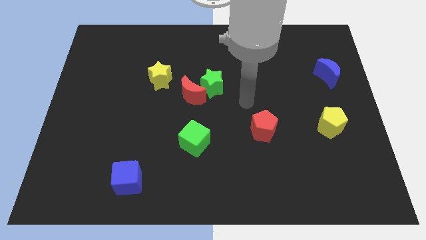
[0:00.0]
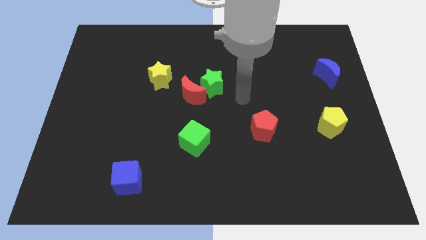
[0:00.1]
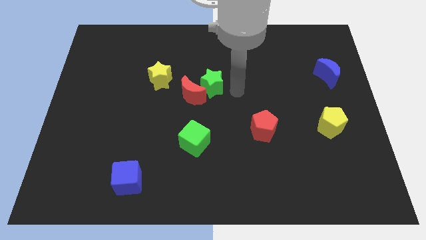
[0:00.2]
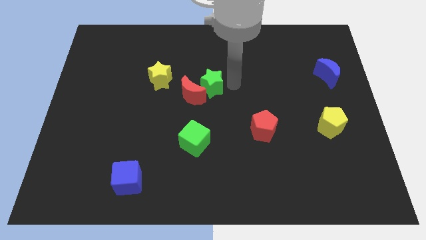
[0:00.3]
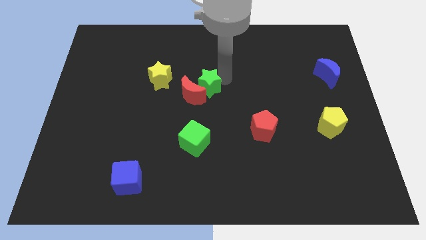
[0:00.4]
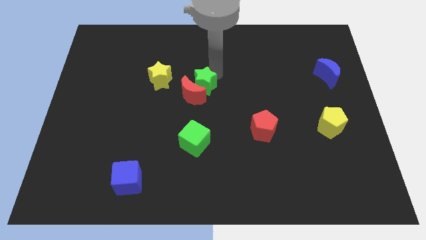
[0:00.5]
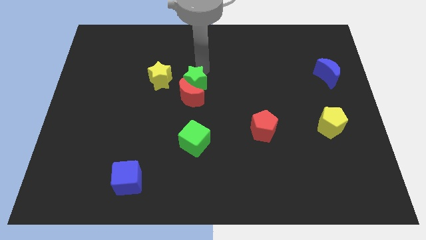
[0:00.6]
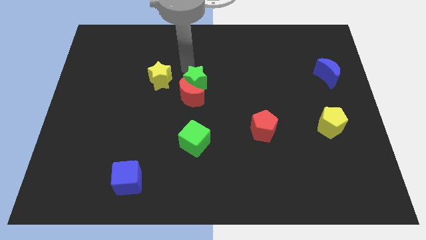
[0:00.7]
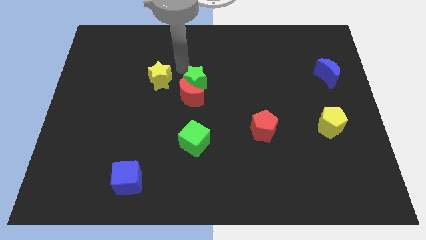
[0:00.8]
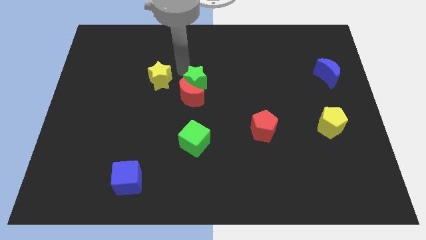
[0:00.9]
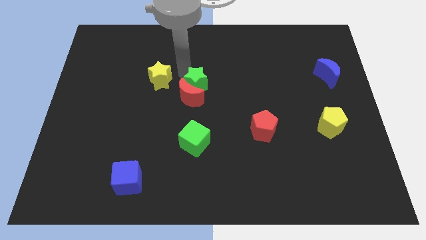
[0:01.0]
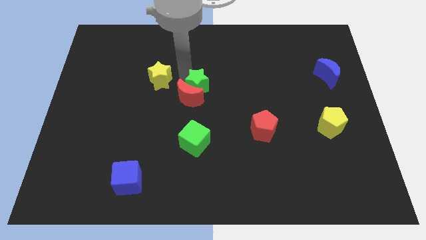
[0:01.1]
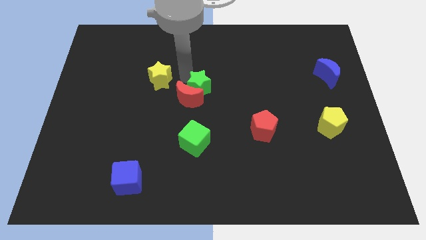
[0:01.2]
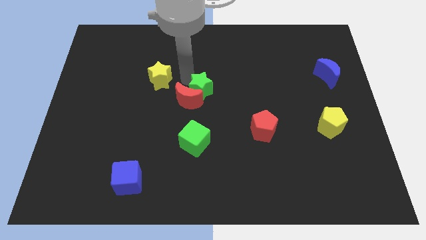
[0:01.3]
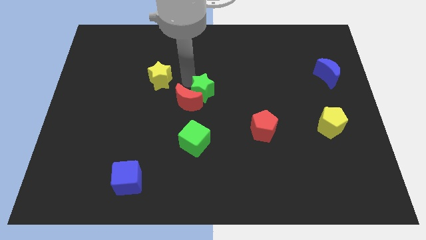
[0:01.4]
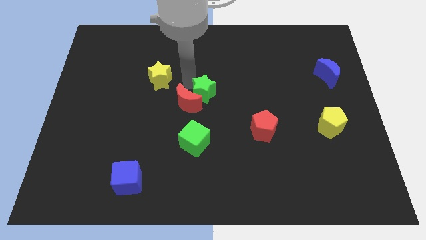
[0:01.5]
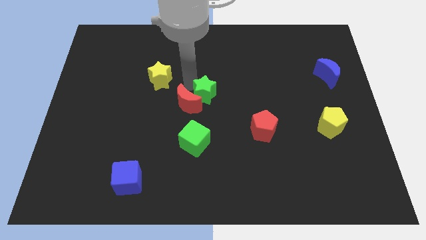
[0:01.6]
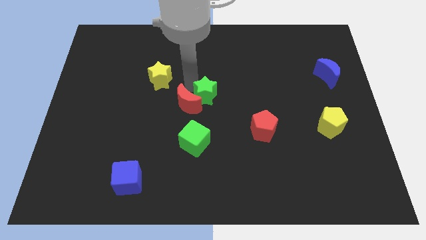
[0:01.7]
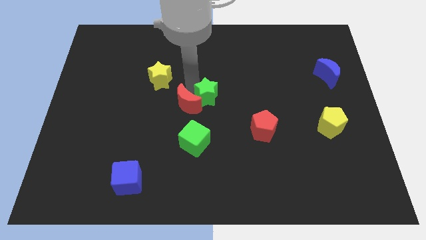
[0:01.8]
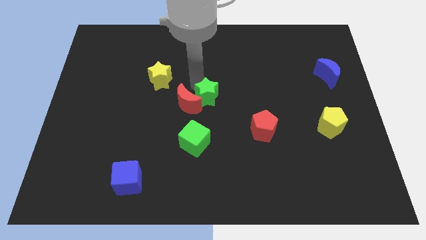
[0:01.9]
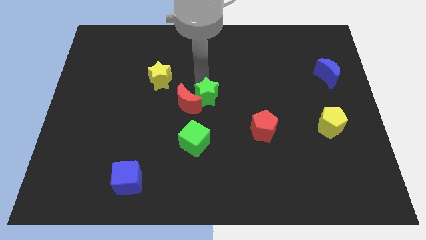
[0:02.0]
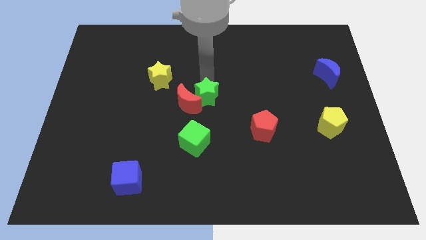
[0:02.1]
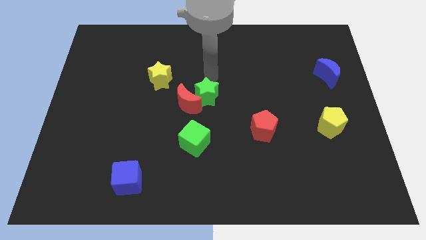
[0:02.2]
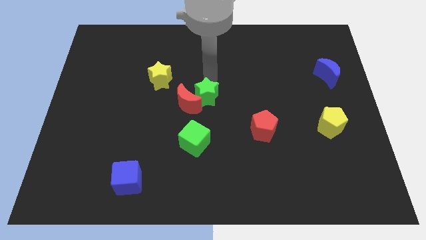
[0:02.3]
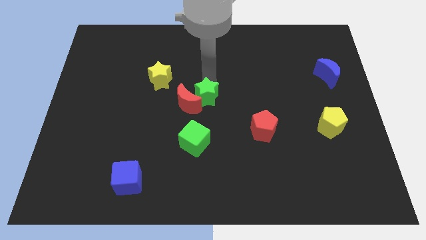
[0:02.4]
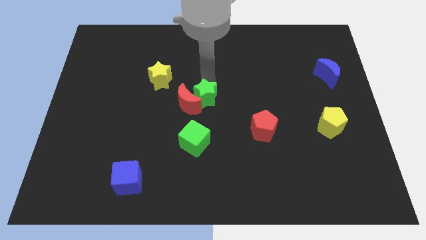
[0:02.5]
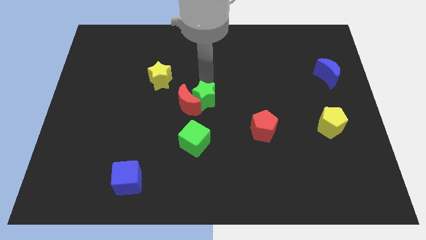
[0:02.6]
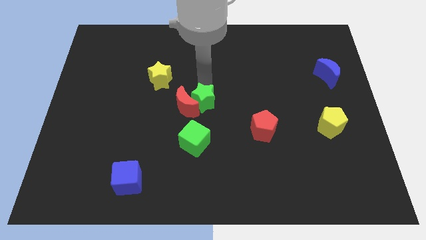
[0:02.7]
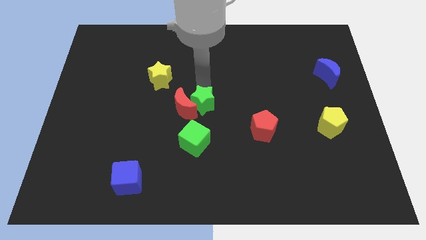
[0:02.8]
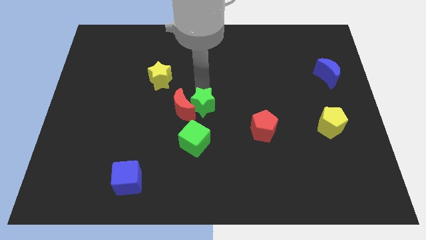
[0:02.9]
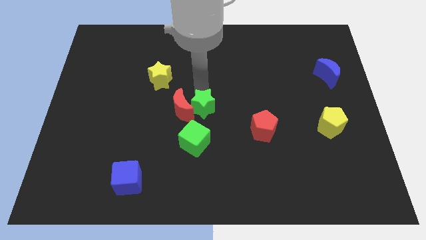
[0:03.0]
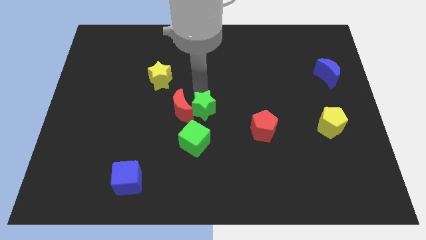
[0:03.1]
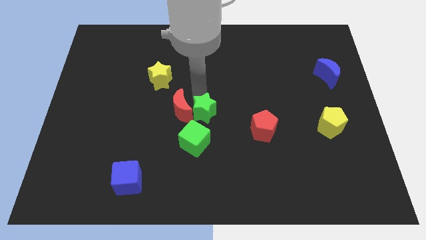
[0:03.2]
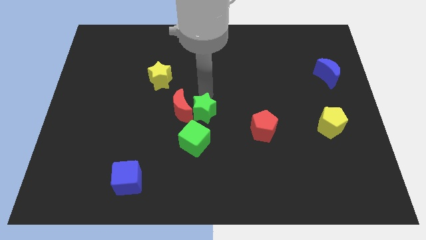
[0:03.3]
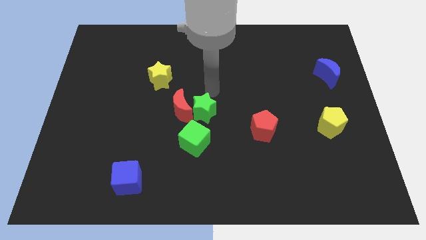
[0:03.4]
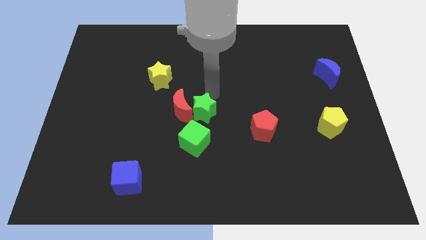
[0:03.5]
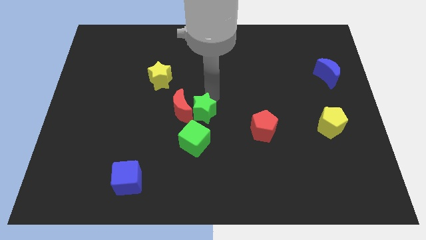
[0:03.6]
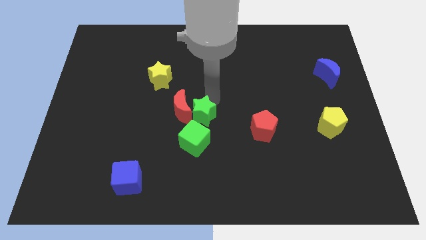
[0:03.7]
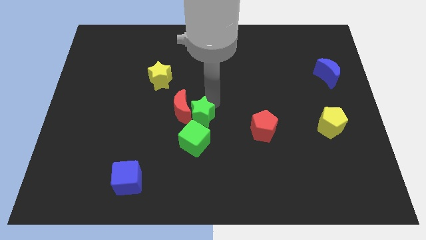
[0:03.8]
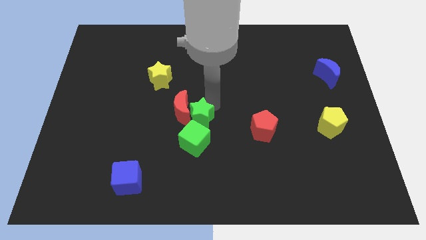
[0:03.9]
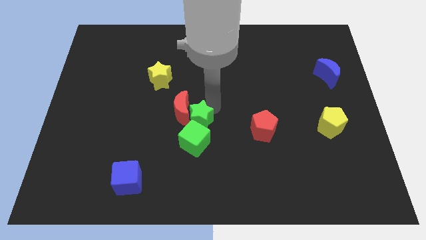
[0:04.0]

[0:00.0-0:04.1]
slide the green star close to the green cube

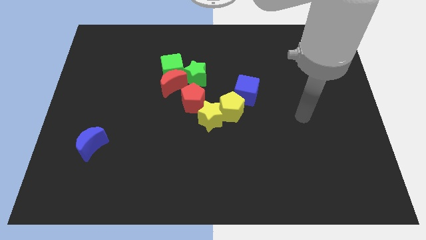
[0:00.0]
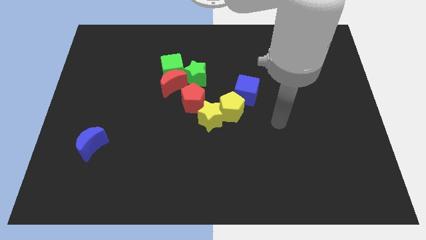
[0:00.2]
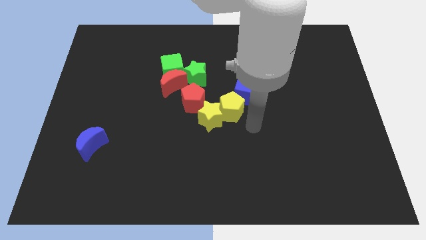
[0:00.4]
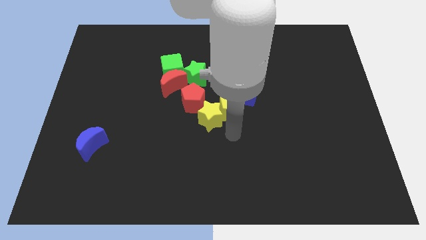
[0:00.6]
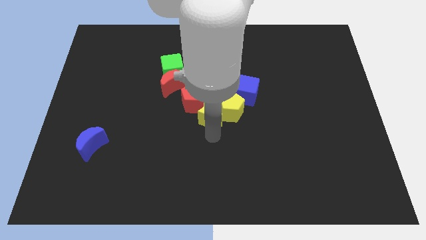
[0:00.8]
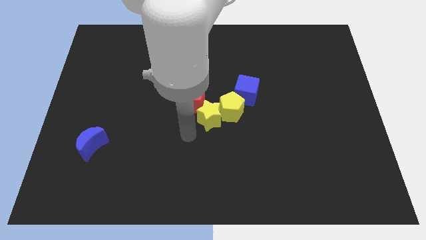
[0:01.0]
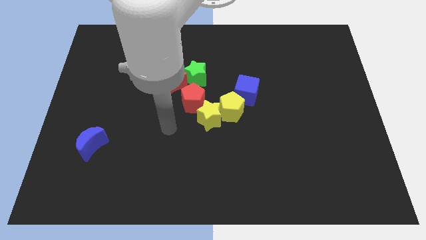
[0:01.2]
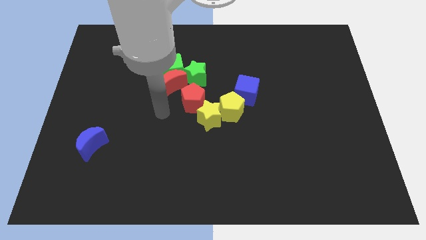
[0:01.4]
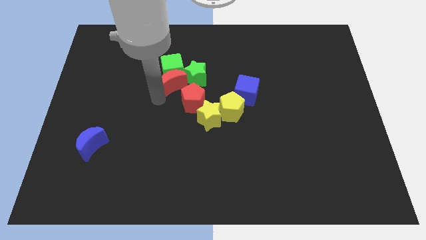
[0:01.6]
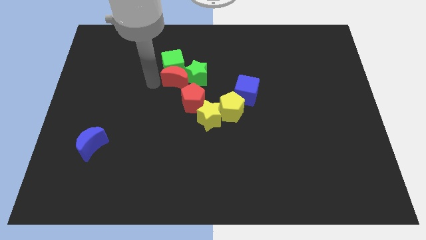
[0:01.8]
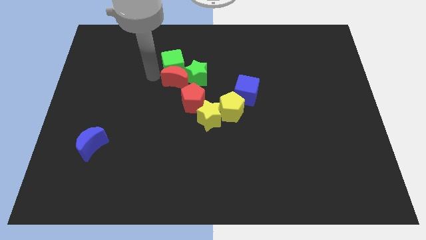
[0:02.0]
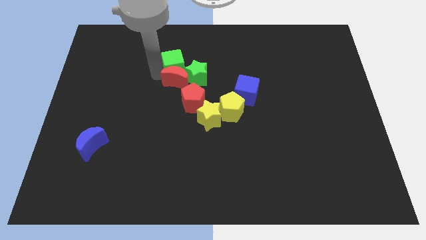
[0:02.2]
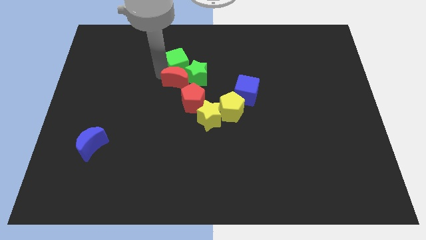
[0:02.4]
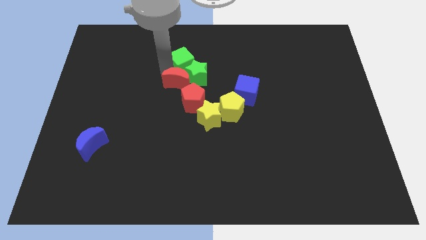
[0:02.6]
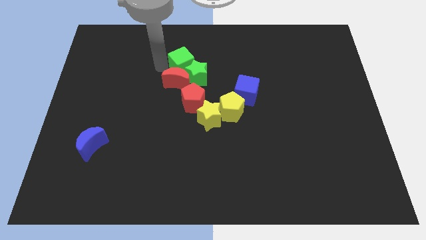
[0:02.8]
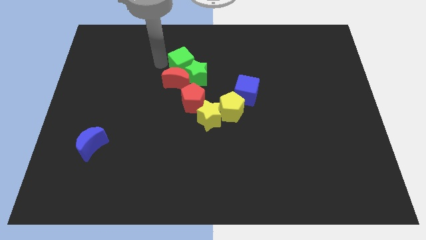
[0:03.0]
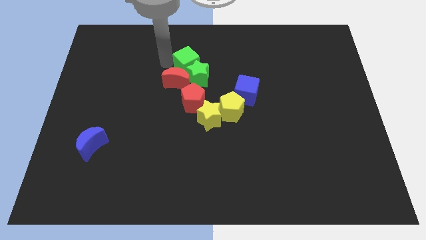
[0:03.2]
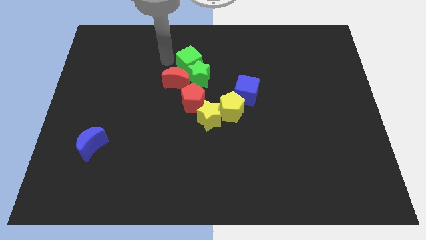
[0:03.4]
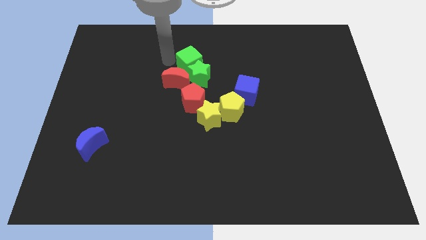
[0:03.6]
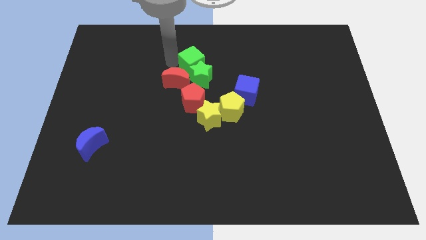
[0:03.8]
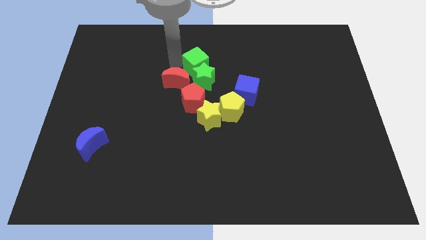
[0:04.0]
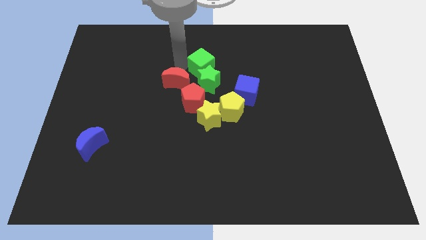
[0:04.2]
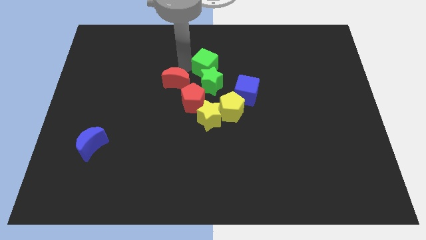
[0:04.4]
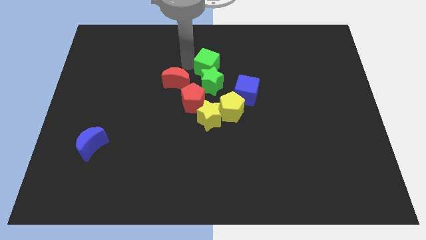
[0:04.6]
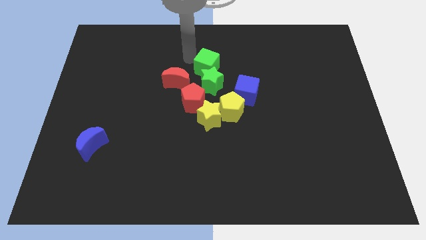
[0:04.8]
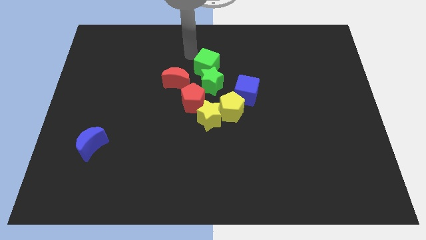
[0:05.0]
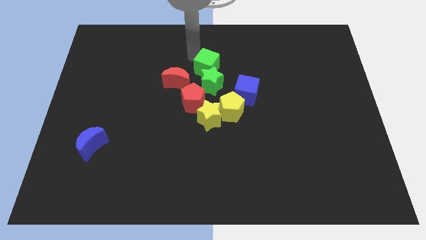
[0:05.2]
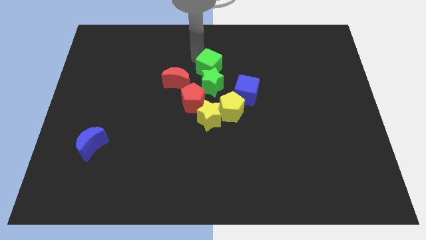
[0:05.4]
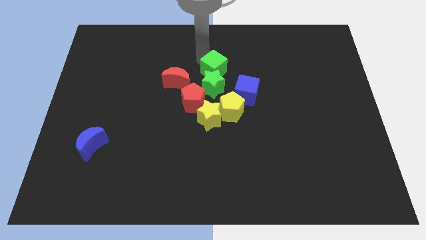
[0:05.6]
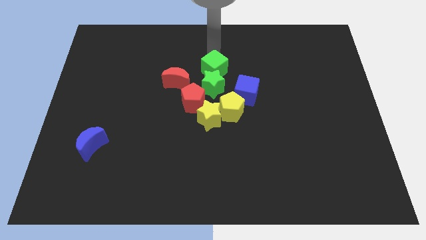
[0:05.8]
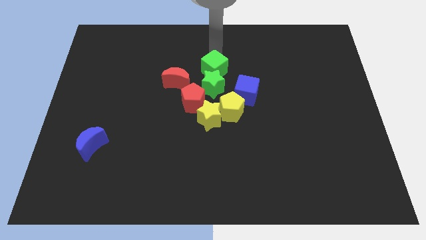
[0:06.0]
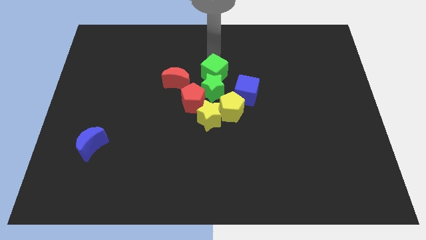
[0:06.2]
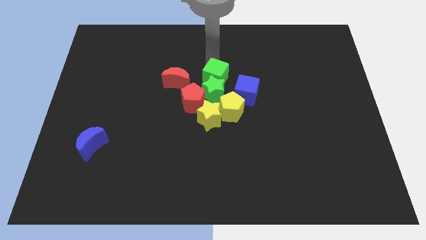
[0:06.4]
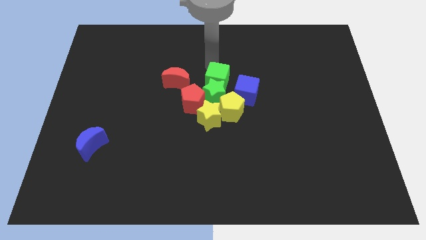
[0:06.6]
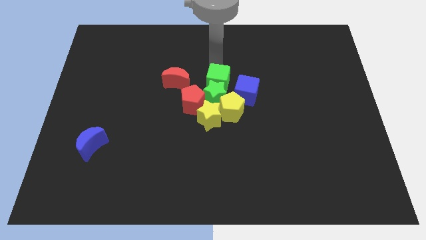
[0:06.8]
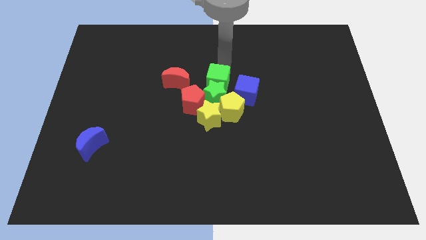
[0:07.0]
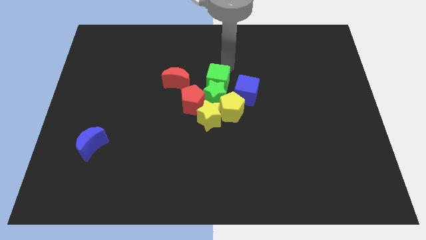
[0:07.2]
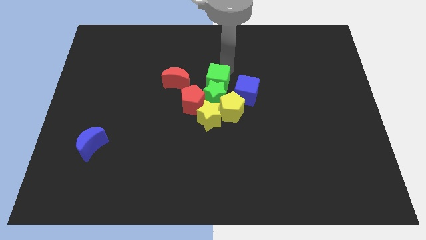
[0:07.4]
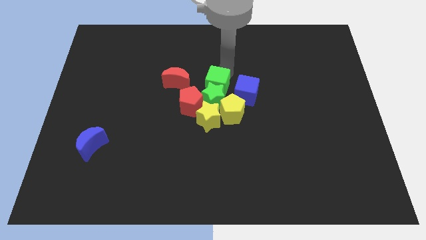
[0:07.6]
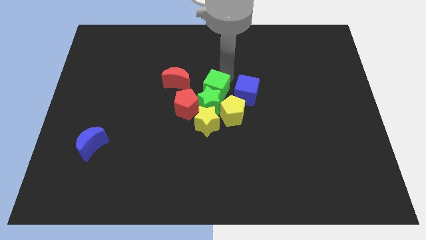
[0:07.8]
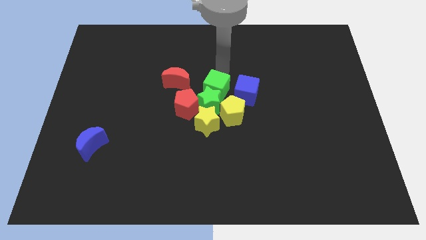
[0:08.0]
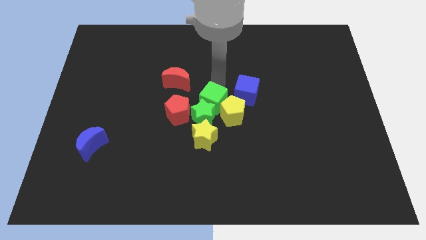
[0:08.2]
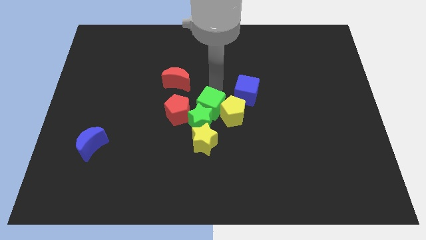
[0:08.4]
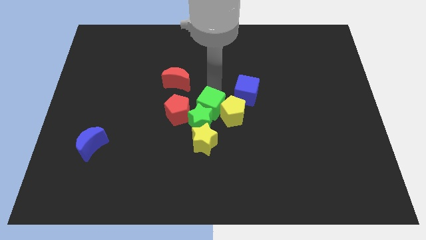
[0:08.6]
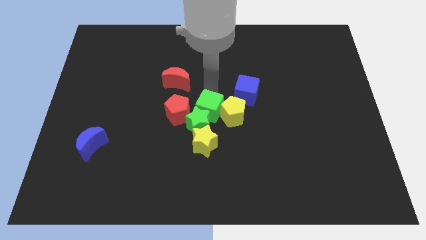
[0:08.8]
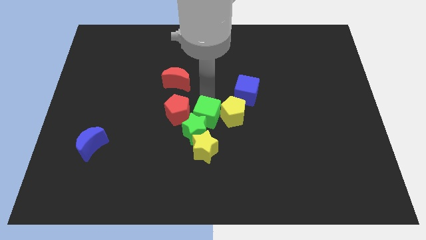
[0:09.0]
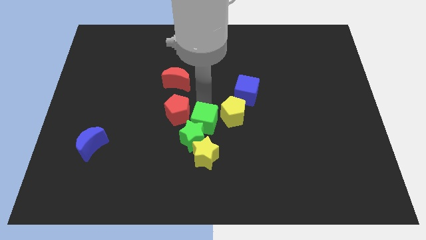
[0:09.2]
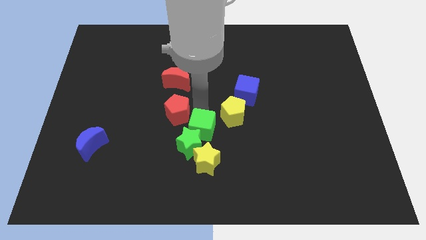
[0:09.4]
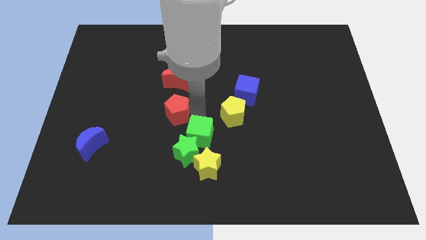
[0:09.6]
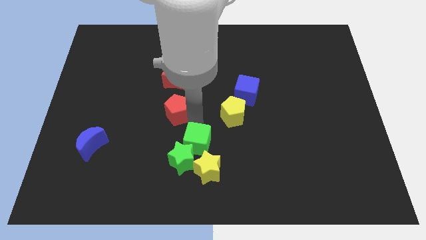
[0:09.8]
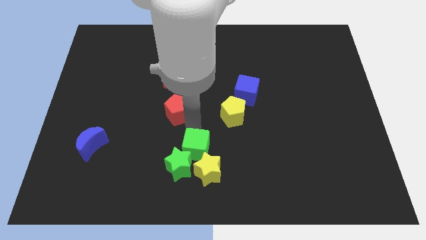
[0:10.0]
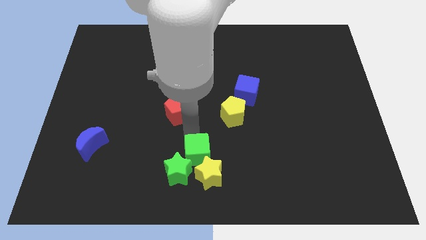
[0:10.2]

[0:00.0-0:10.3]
push the green cube to the yellow star
